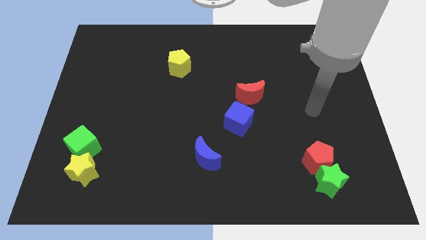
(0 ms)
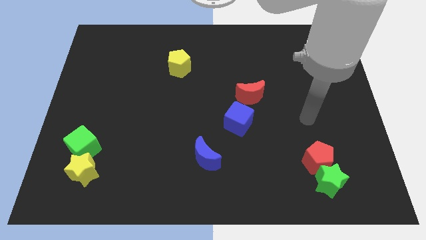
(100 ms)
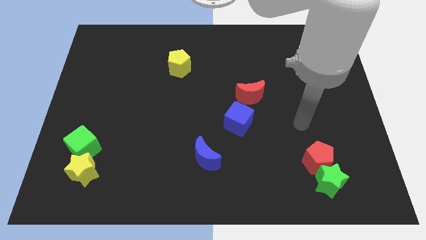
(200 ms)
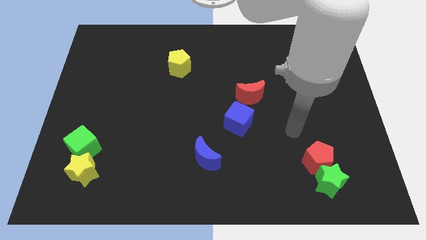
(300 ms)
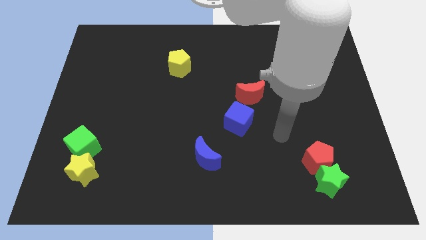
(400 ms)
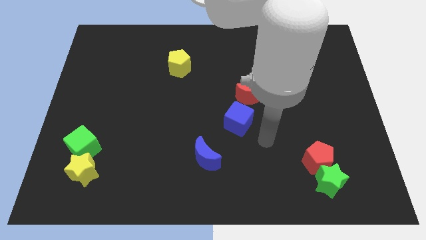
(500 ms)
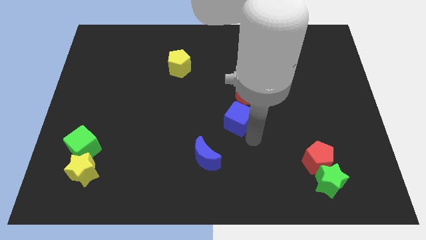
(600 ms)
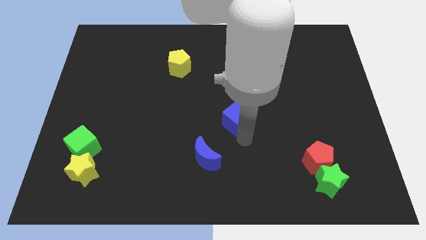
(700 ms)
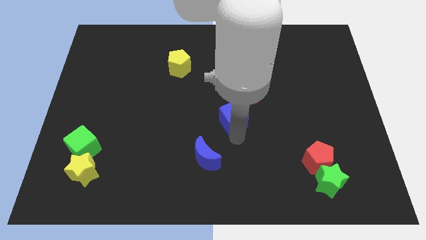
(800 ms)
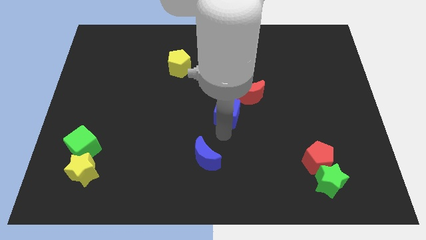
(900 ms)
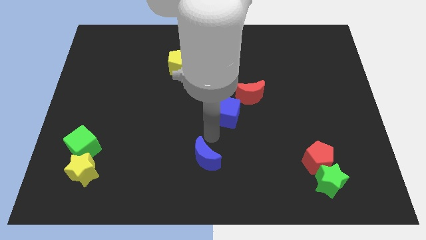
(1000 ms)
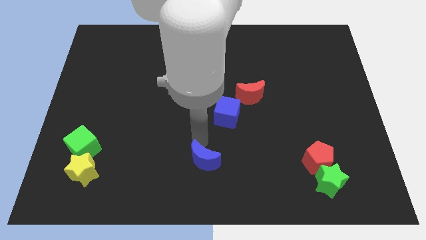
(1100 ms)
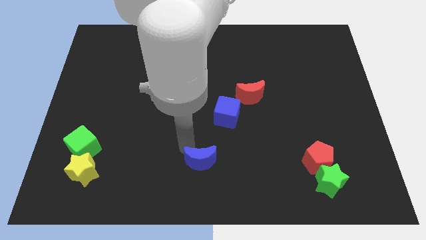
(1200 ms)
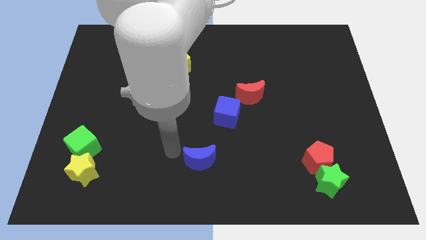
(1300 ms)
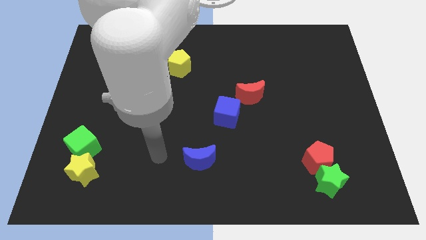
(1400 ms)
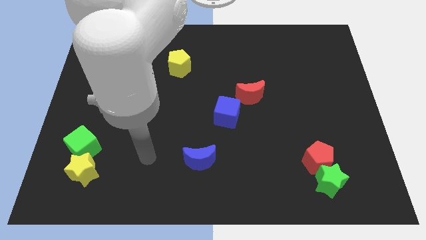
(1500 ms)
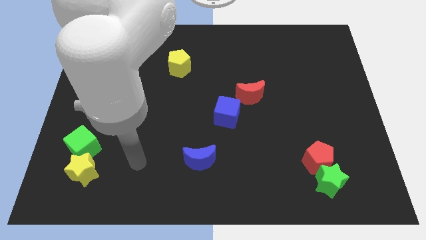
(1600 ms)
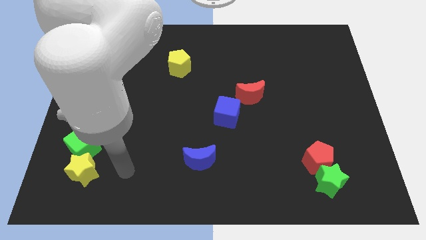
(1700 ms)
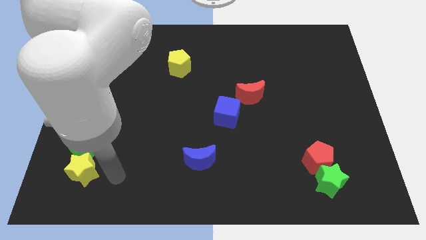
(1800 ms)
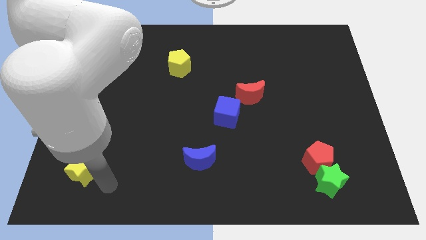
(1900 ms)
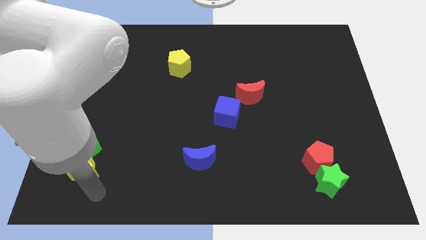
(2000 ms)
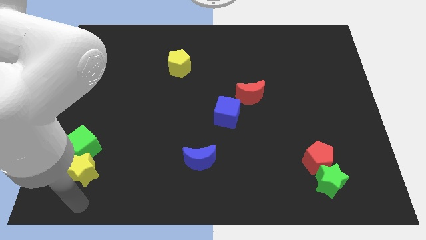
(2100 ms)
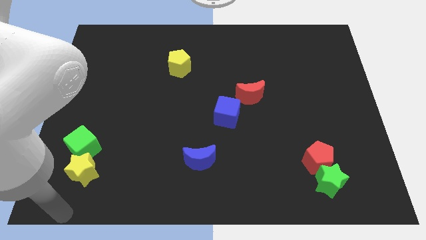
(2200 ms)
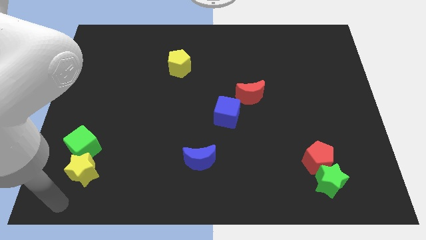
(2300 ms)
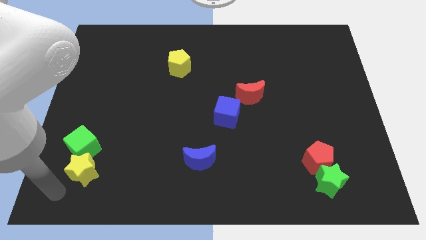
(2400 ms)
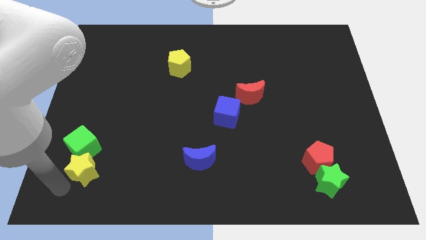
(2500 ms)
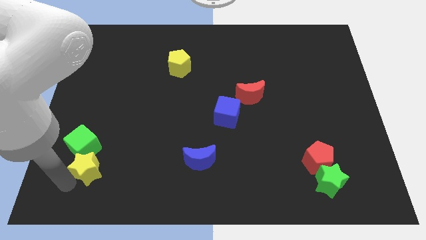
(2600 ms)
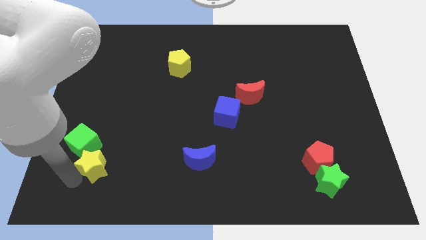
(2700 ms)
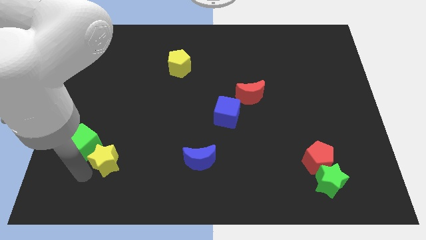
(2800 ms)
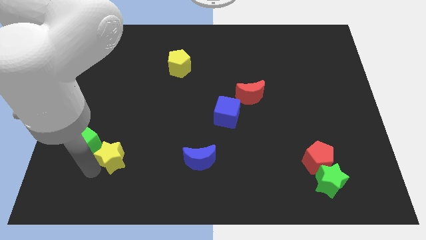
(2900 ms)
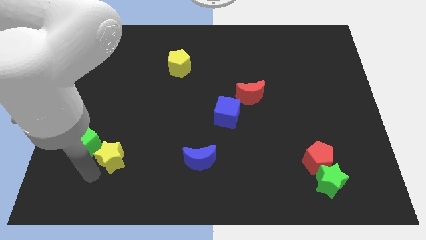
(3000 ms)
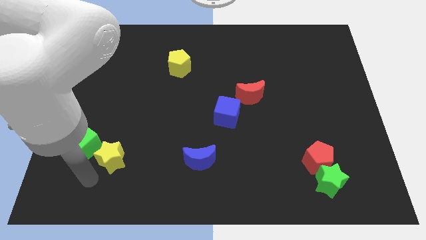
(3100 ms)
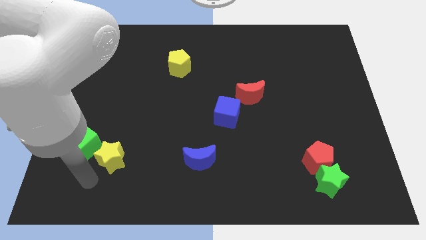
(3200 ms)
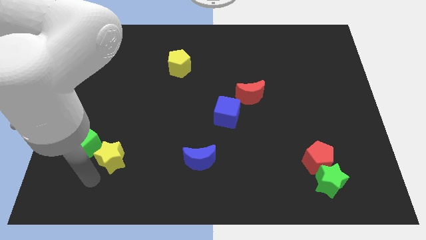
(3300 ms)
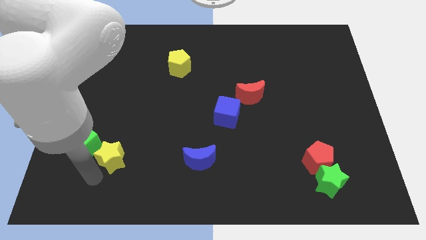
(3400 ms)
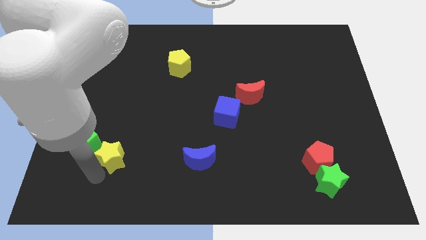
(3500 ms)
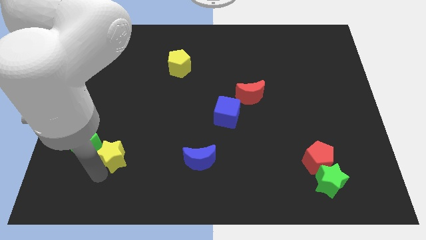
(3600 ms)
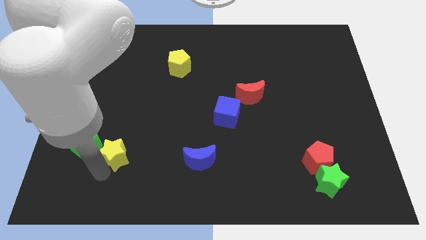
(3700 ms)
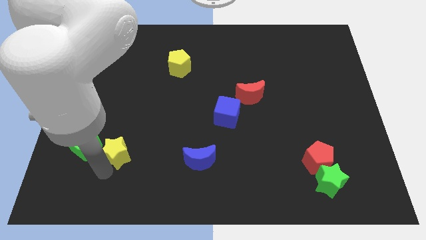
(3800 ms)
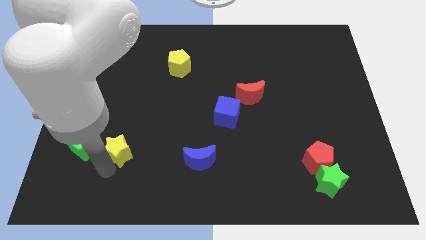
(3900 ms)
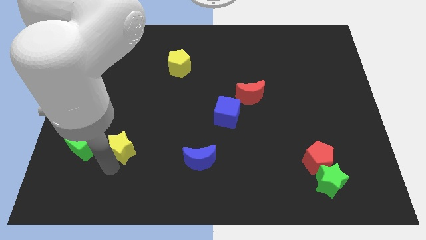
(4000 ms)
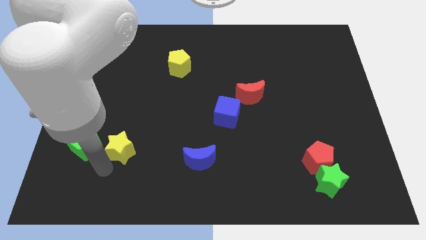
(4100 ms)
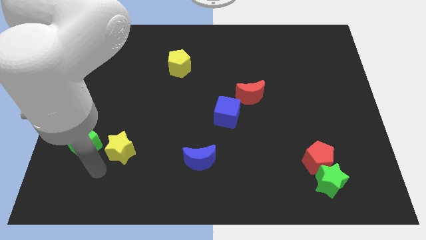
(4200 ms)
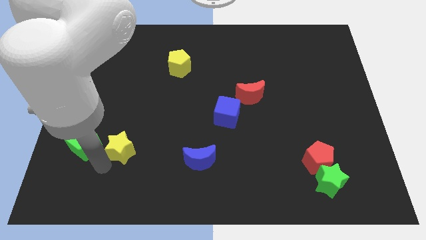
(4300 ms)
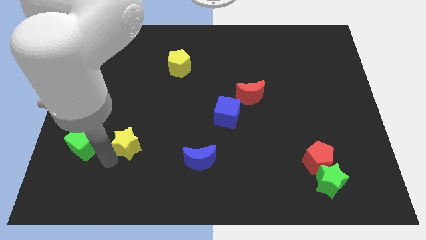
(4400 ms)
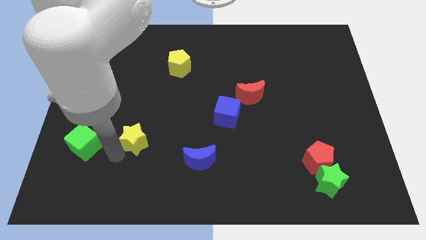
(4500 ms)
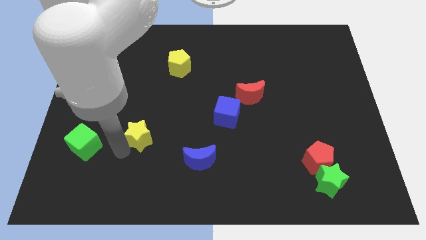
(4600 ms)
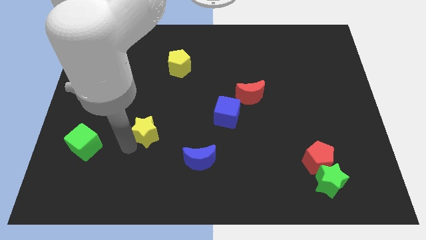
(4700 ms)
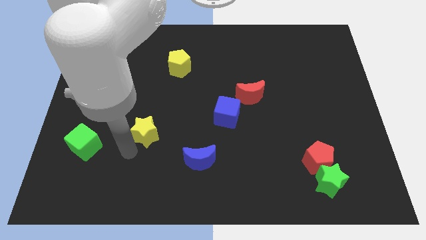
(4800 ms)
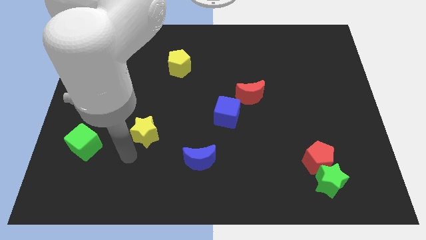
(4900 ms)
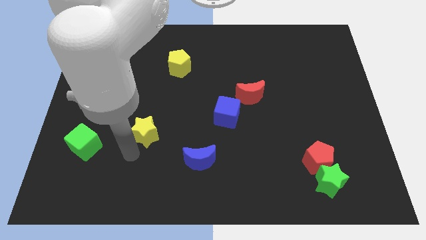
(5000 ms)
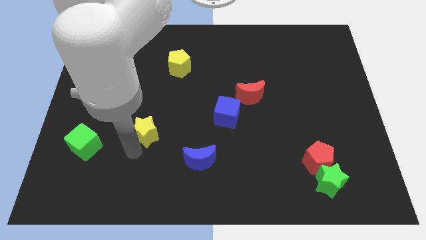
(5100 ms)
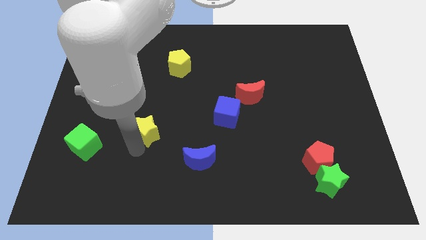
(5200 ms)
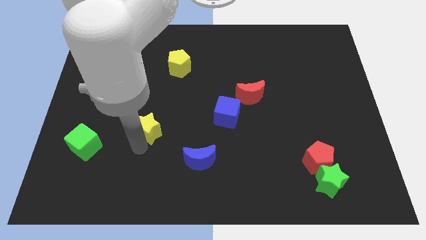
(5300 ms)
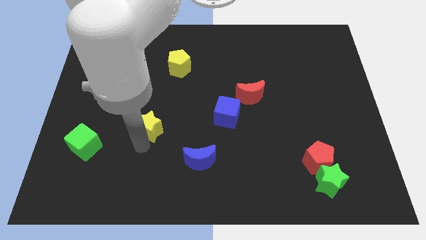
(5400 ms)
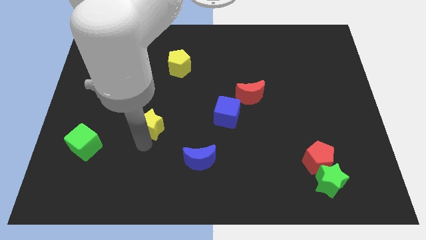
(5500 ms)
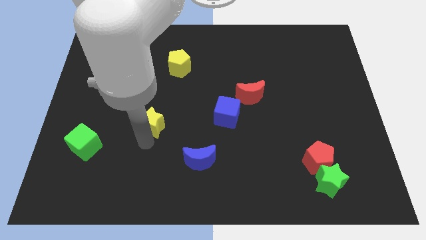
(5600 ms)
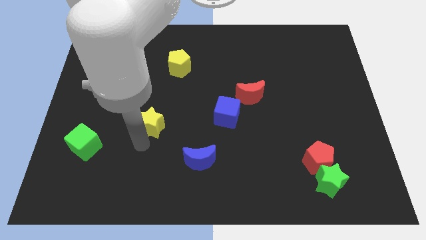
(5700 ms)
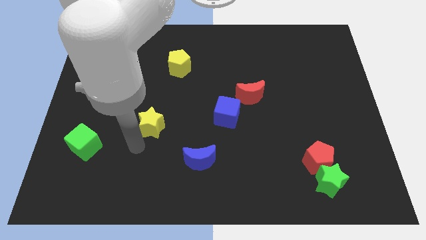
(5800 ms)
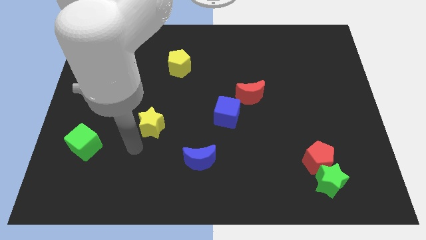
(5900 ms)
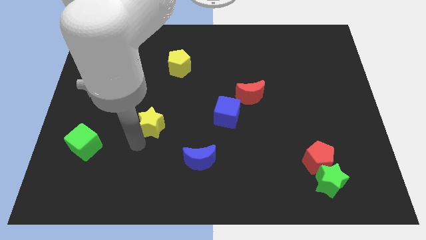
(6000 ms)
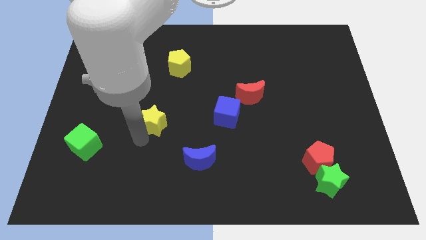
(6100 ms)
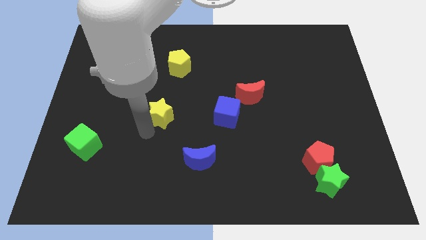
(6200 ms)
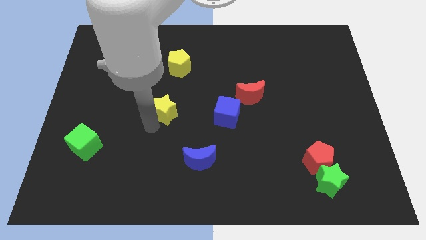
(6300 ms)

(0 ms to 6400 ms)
slide the yellow star to the bottom side of the yellow pentagon

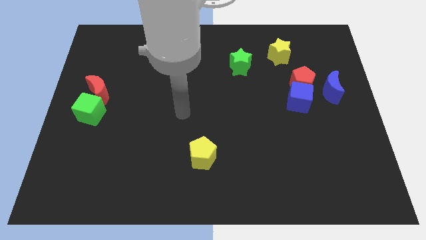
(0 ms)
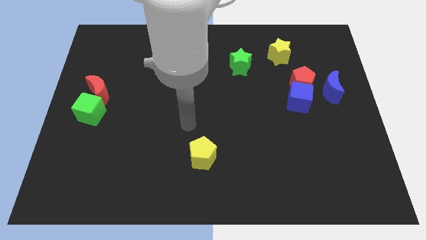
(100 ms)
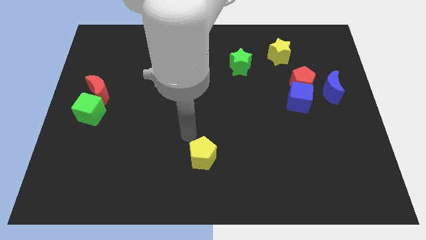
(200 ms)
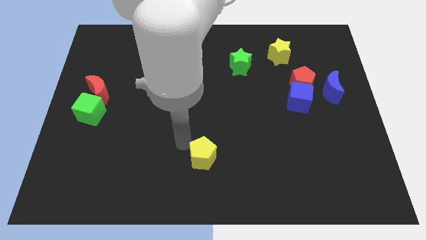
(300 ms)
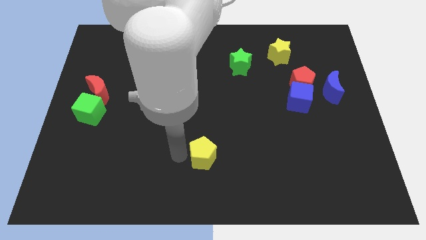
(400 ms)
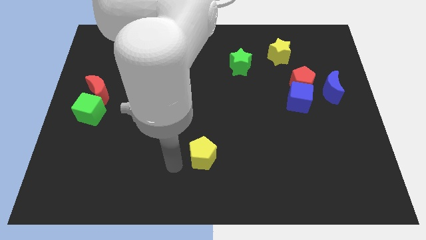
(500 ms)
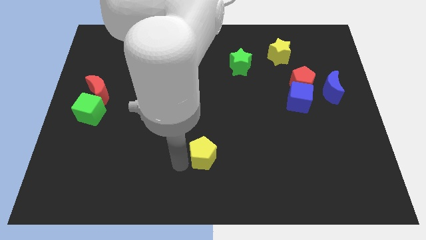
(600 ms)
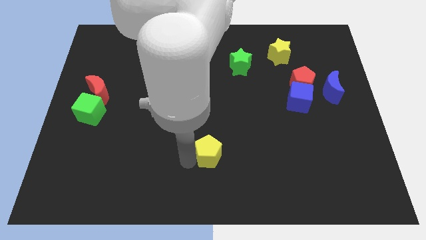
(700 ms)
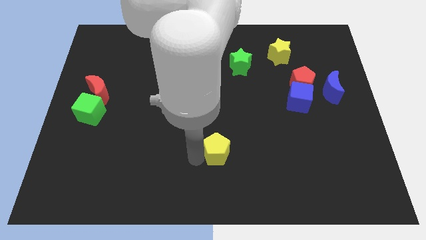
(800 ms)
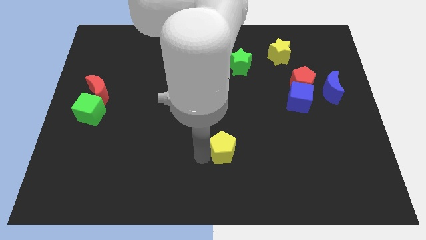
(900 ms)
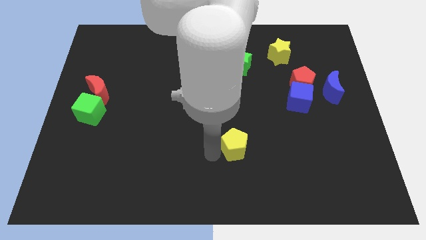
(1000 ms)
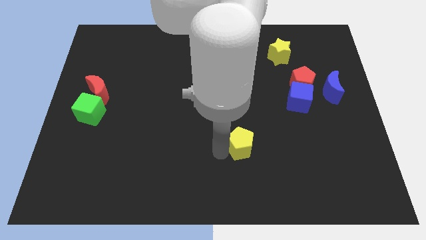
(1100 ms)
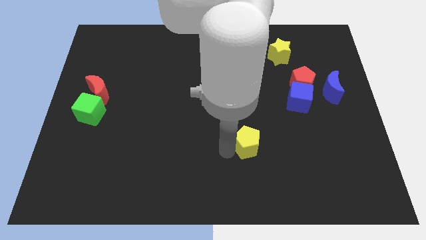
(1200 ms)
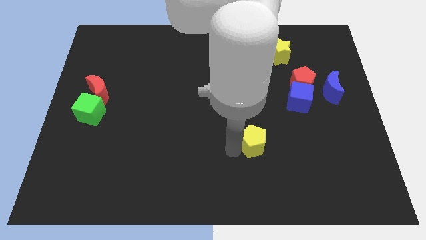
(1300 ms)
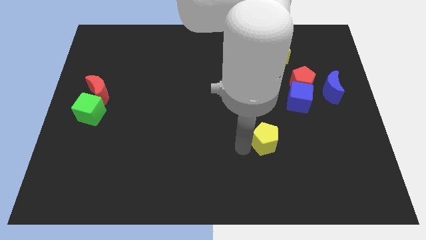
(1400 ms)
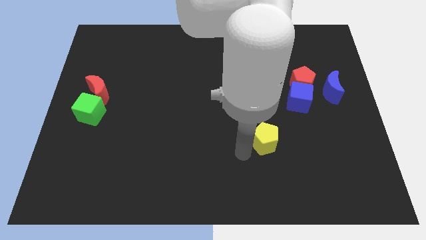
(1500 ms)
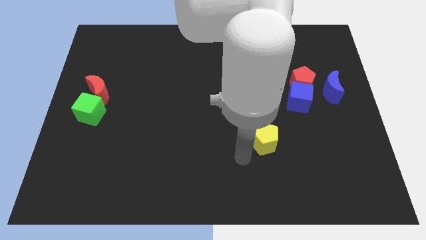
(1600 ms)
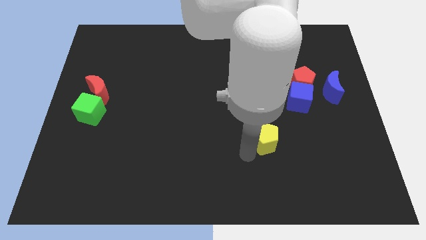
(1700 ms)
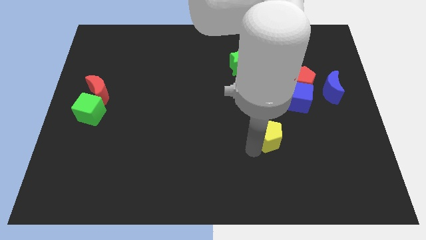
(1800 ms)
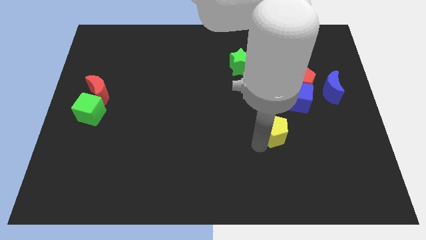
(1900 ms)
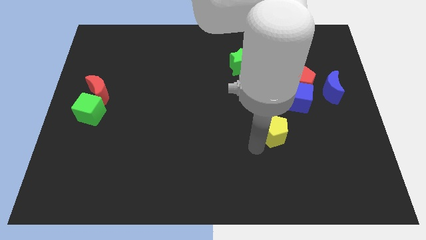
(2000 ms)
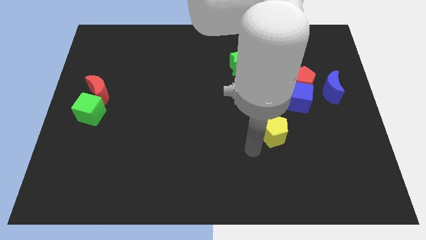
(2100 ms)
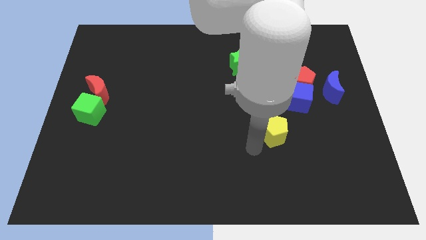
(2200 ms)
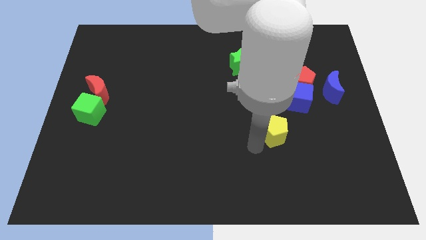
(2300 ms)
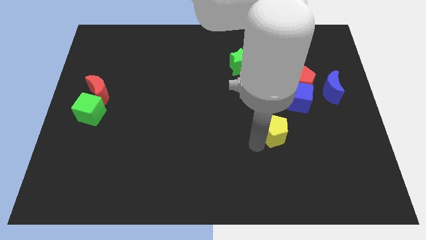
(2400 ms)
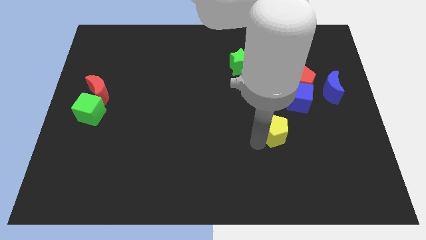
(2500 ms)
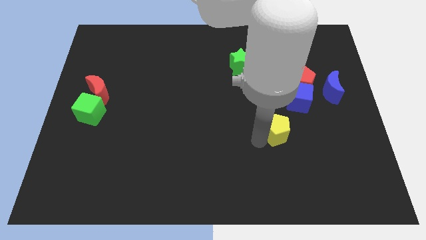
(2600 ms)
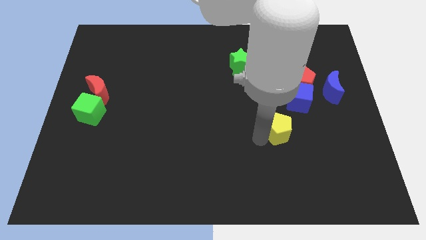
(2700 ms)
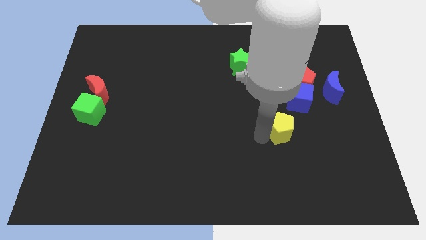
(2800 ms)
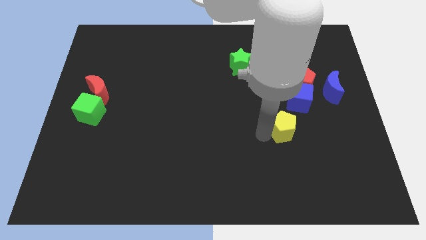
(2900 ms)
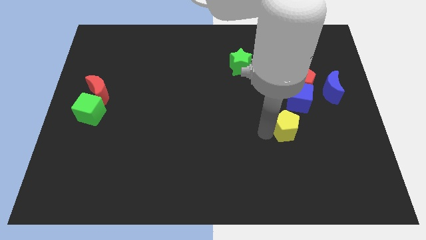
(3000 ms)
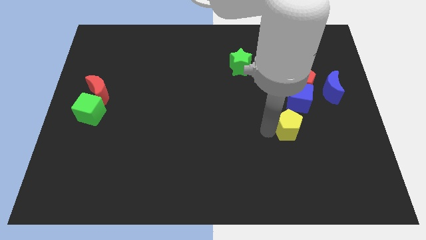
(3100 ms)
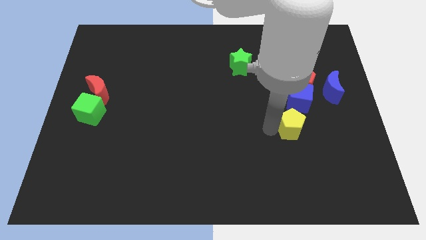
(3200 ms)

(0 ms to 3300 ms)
slide the yellow pentagon below the red pentagon
